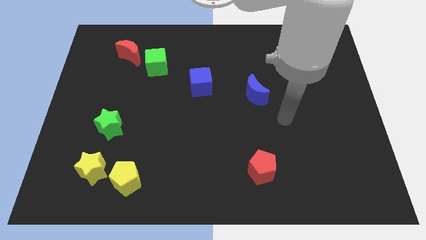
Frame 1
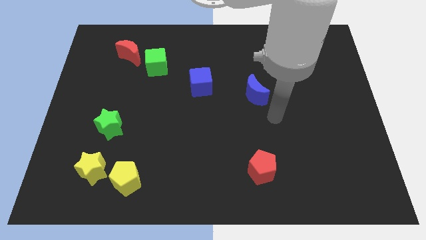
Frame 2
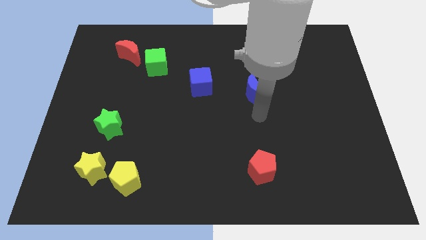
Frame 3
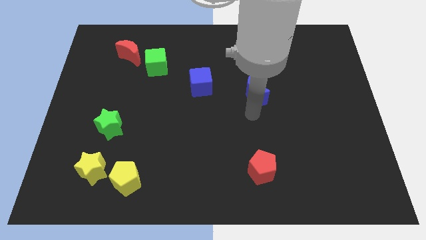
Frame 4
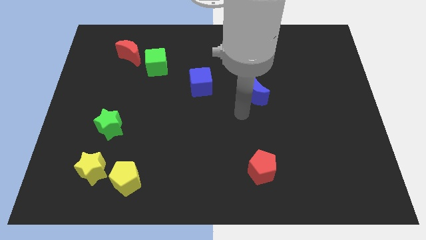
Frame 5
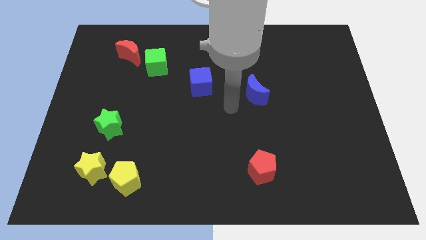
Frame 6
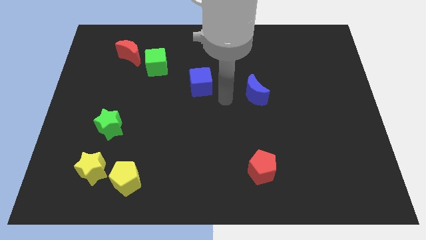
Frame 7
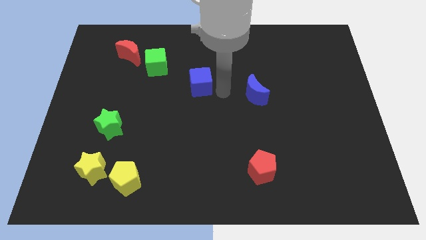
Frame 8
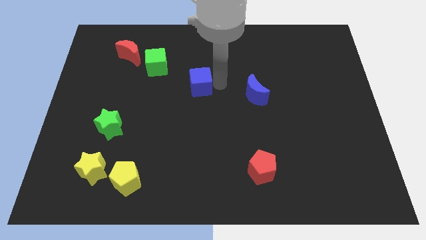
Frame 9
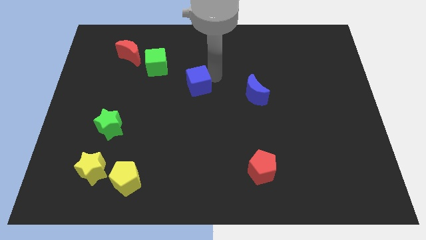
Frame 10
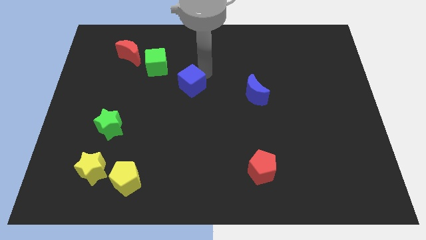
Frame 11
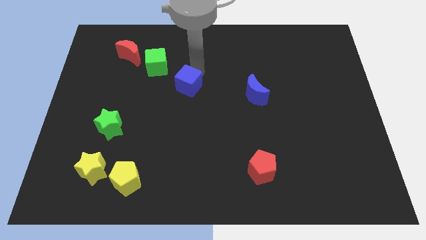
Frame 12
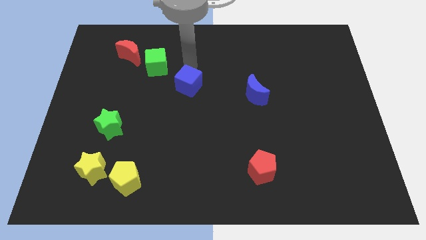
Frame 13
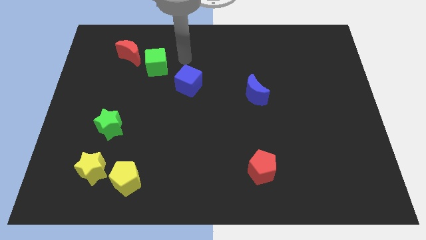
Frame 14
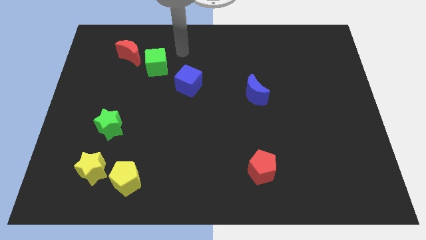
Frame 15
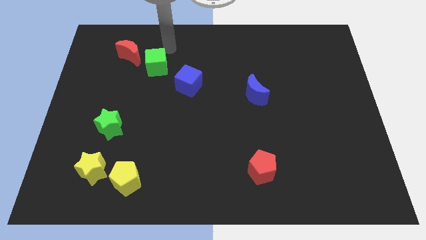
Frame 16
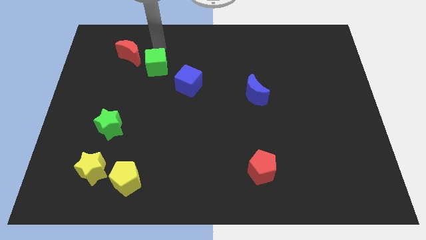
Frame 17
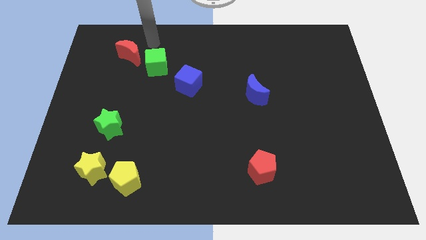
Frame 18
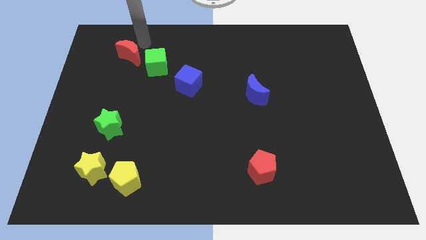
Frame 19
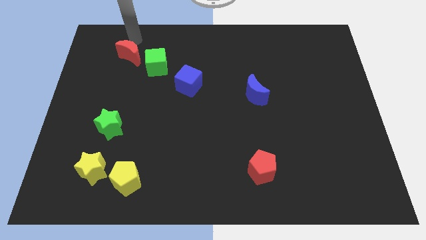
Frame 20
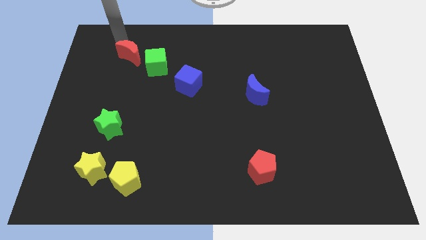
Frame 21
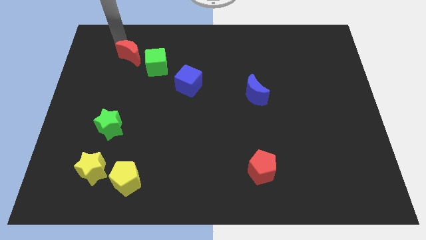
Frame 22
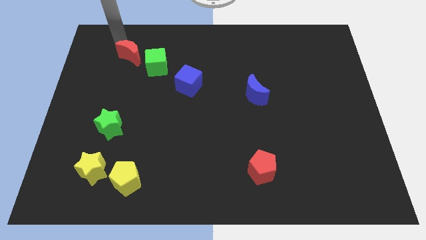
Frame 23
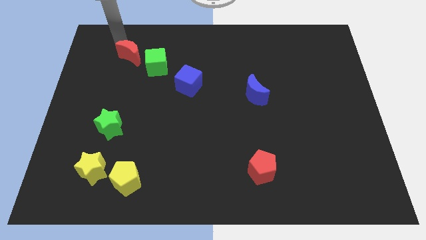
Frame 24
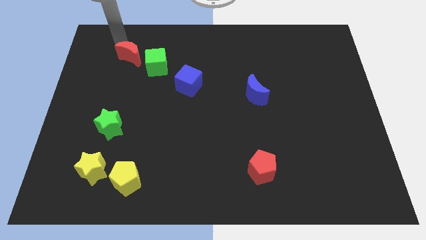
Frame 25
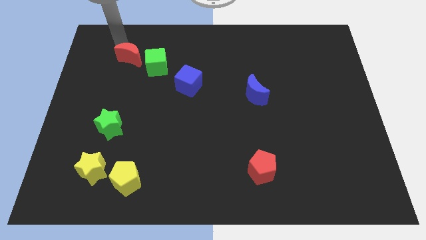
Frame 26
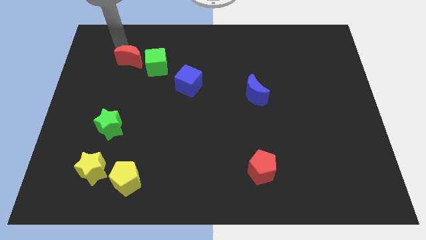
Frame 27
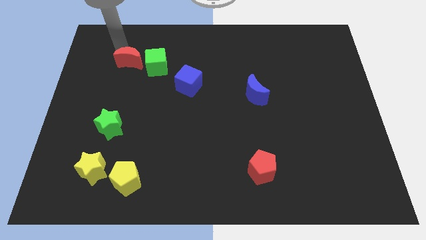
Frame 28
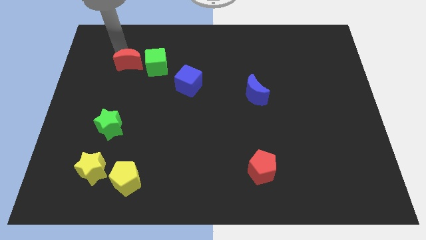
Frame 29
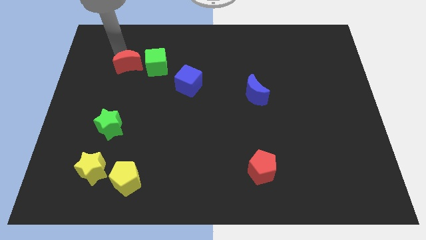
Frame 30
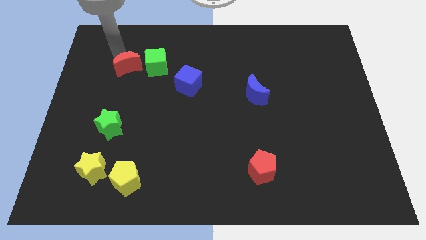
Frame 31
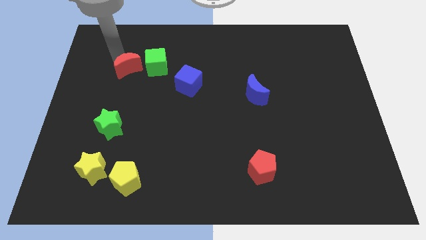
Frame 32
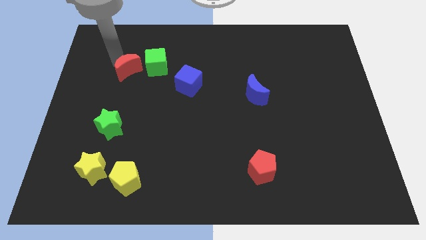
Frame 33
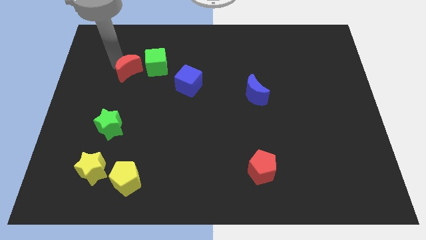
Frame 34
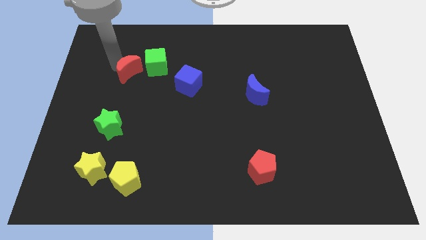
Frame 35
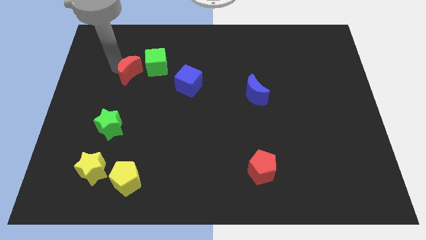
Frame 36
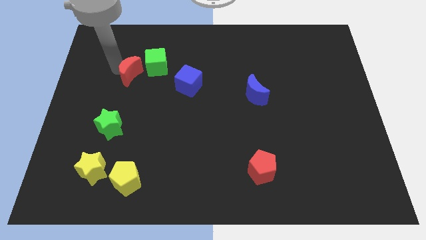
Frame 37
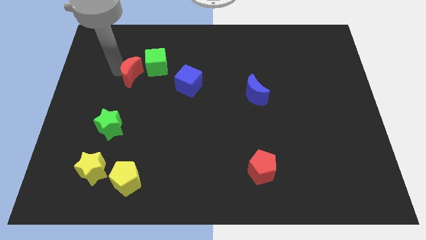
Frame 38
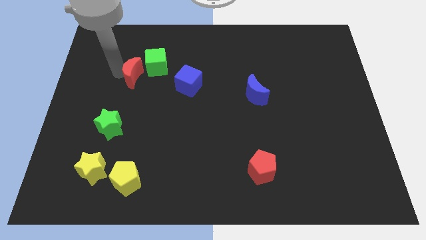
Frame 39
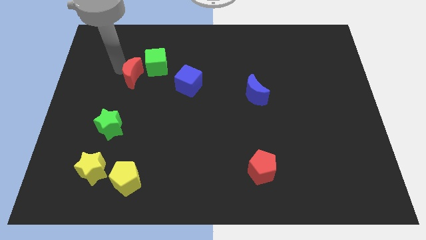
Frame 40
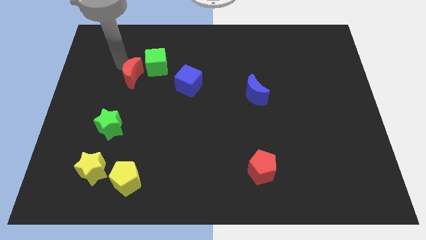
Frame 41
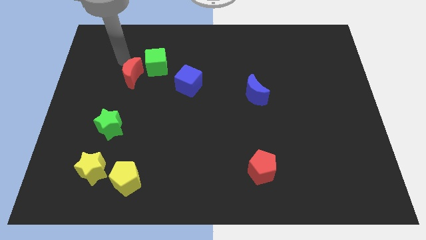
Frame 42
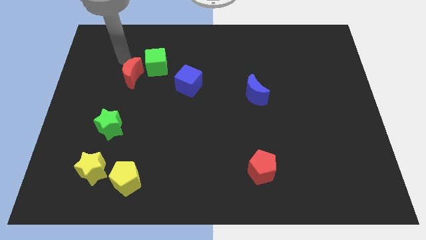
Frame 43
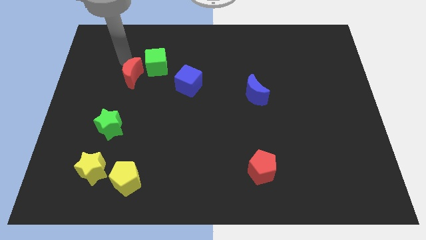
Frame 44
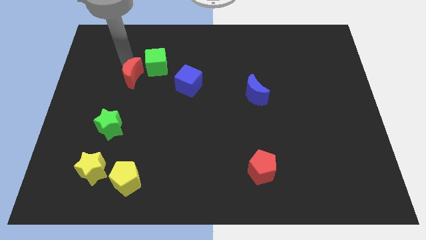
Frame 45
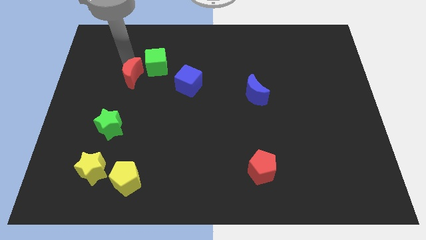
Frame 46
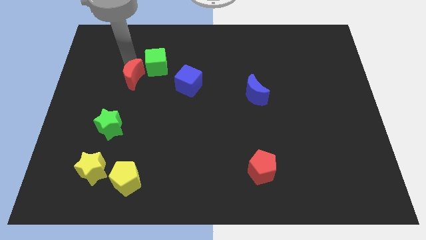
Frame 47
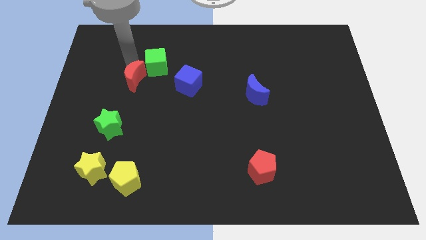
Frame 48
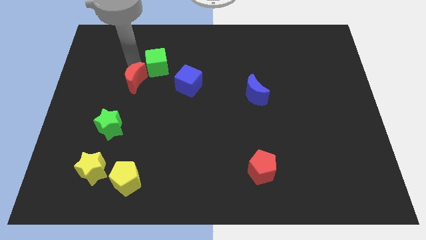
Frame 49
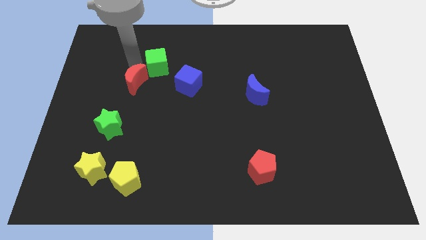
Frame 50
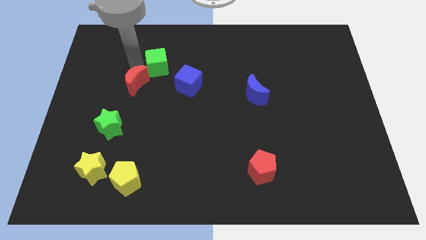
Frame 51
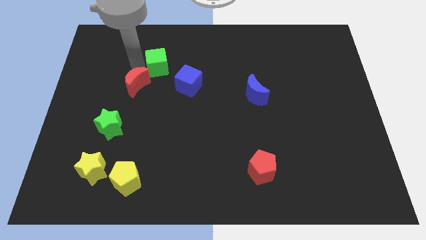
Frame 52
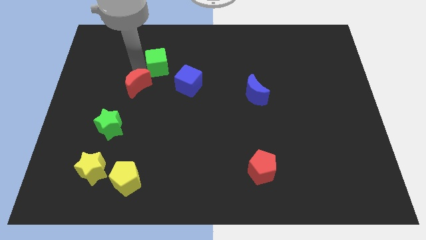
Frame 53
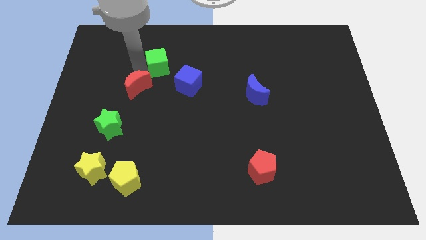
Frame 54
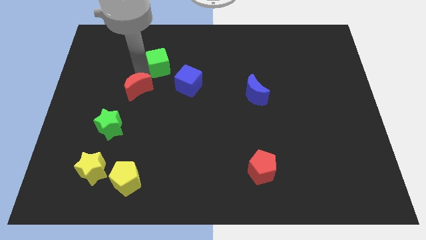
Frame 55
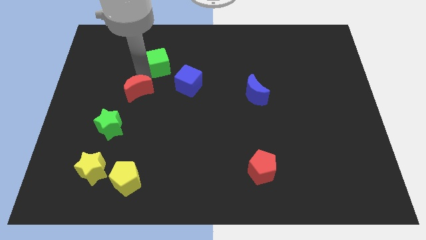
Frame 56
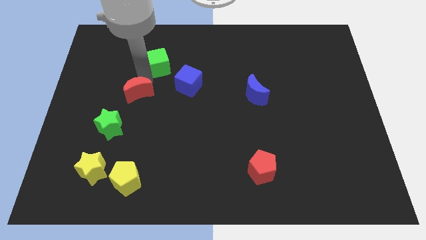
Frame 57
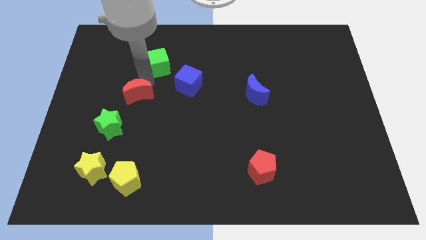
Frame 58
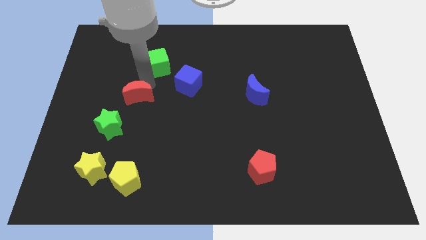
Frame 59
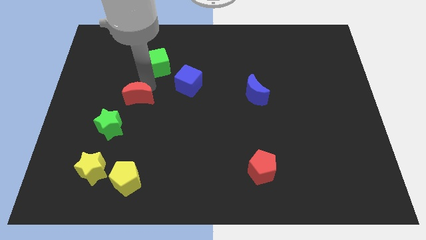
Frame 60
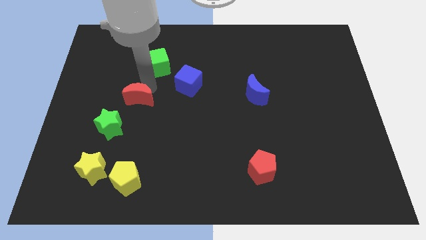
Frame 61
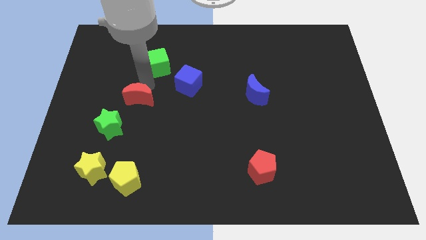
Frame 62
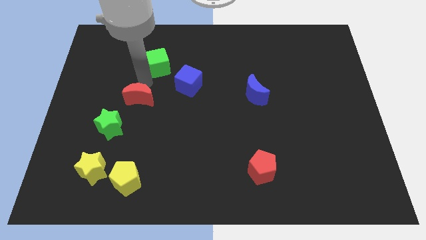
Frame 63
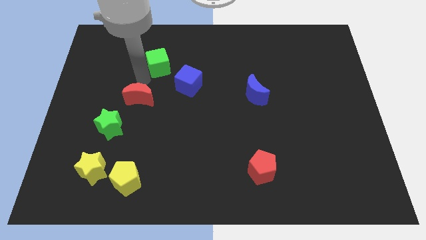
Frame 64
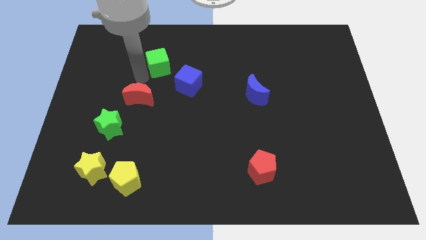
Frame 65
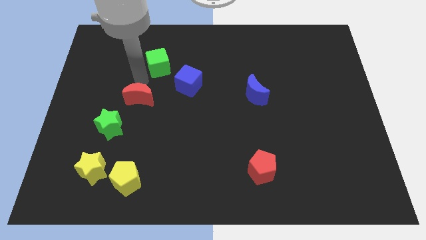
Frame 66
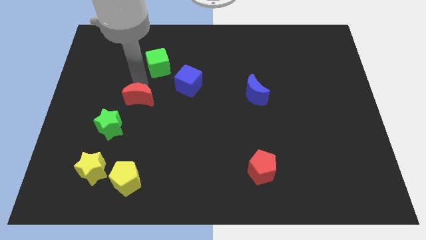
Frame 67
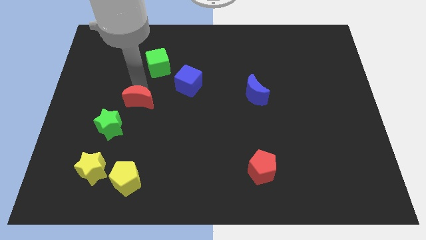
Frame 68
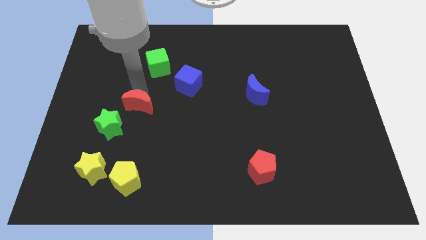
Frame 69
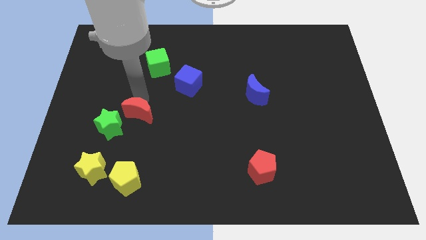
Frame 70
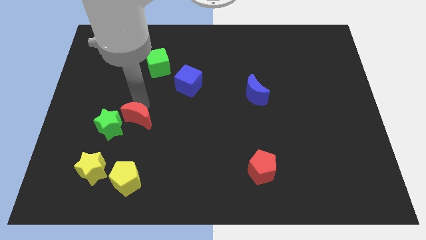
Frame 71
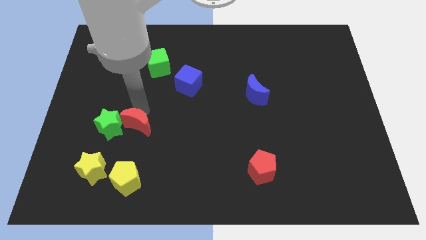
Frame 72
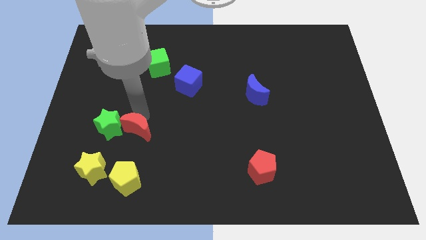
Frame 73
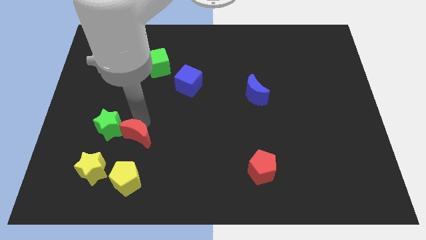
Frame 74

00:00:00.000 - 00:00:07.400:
slide the red moon to the top right side of the yellow star

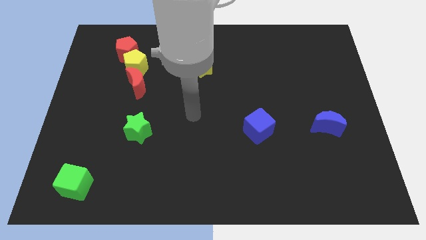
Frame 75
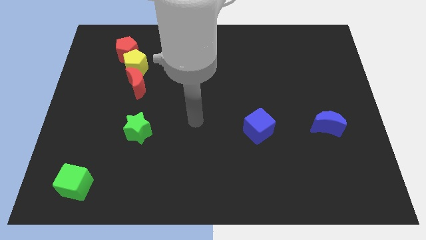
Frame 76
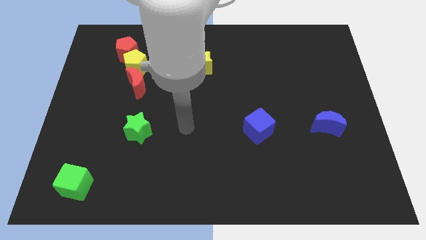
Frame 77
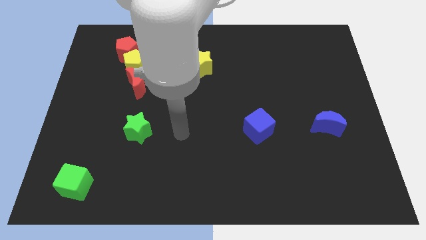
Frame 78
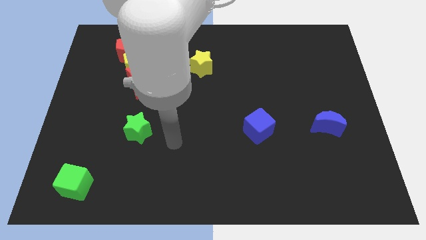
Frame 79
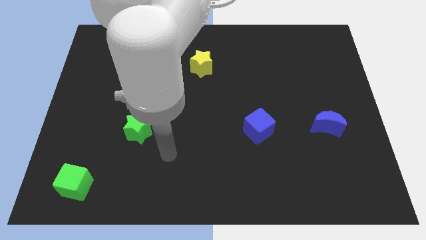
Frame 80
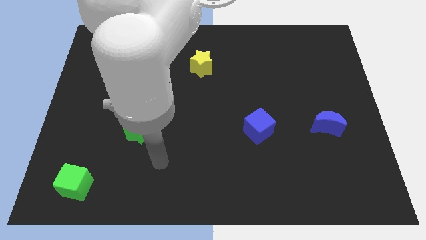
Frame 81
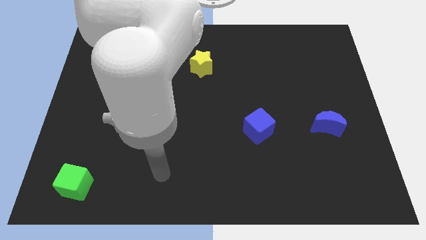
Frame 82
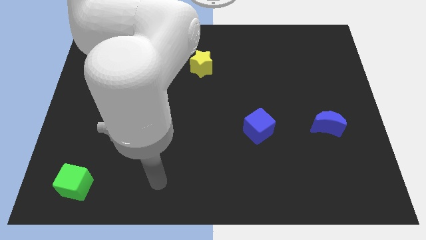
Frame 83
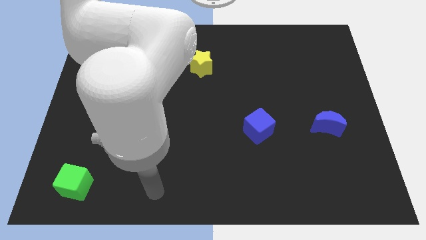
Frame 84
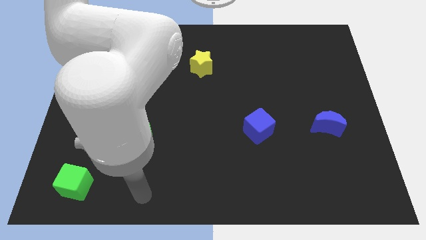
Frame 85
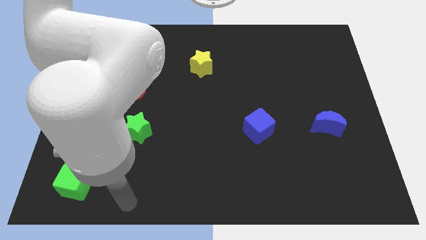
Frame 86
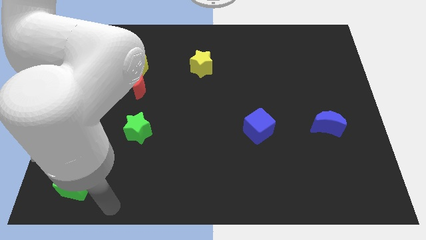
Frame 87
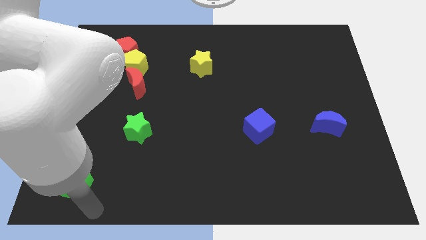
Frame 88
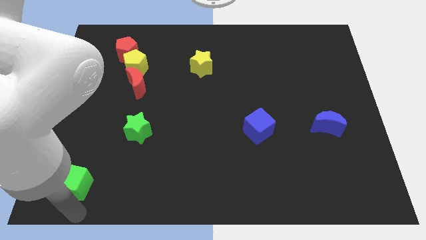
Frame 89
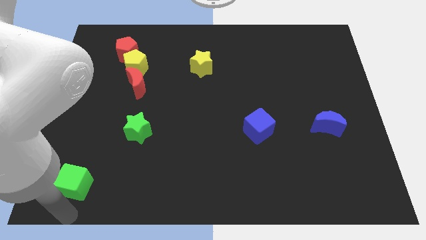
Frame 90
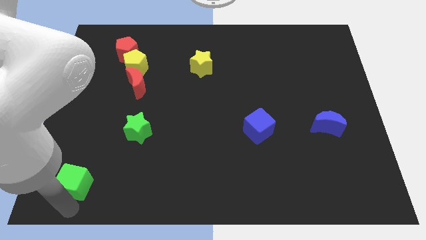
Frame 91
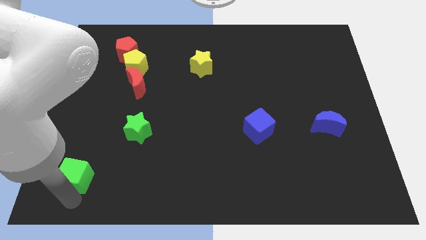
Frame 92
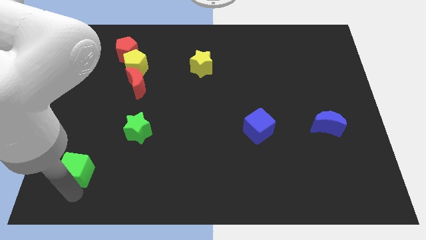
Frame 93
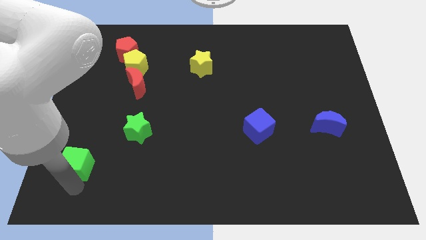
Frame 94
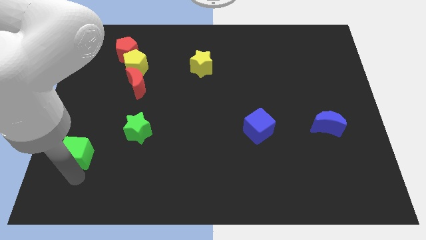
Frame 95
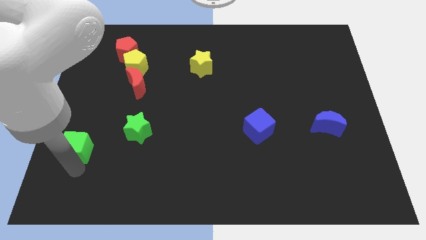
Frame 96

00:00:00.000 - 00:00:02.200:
put the green cube to the left of the green star
